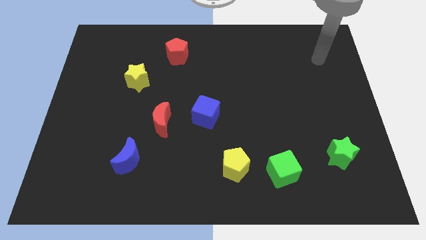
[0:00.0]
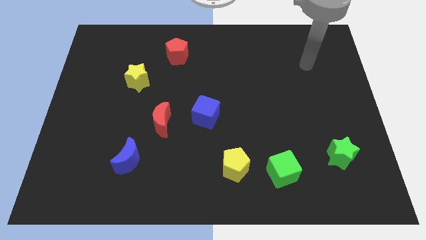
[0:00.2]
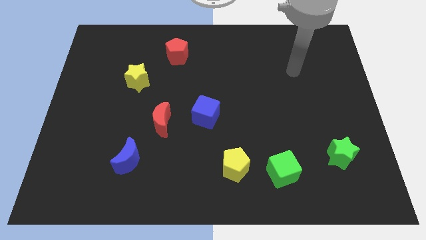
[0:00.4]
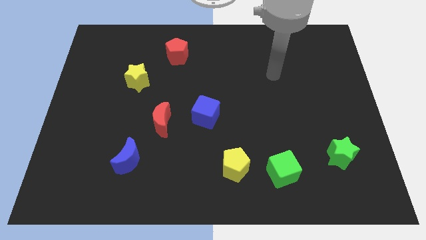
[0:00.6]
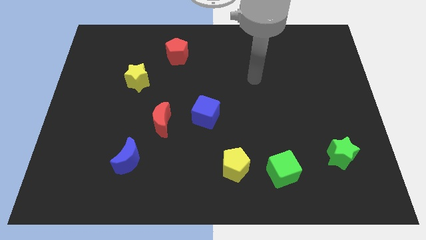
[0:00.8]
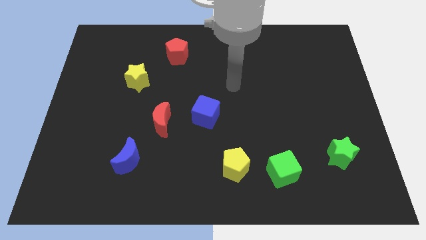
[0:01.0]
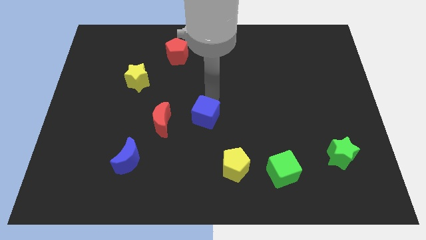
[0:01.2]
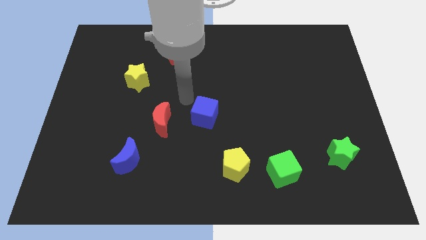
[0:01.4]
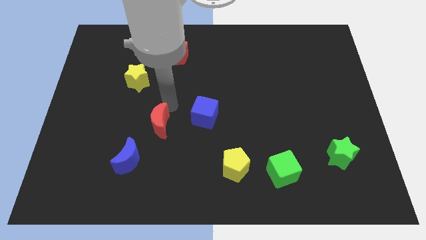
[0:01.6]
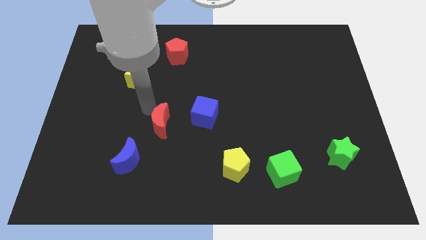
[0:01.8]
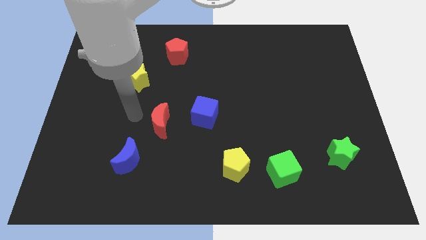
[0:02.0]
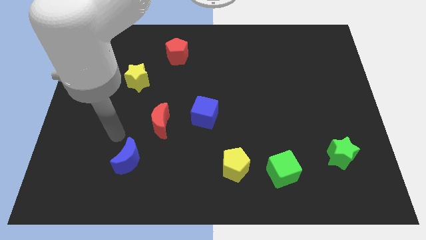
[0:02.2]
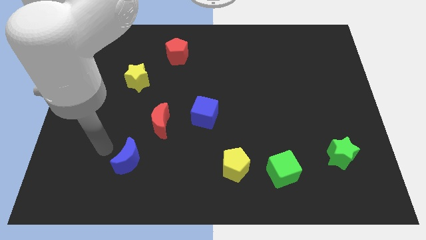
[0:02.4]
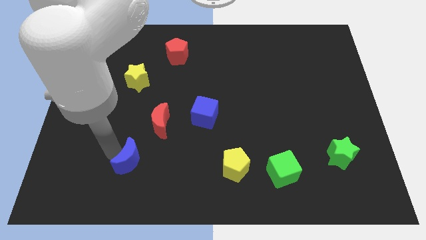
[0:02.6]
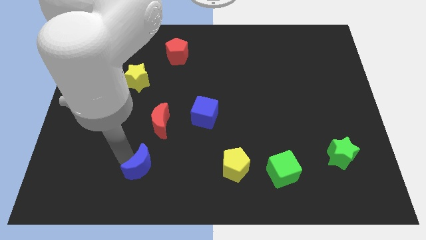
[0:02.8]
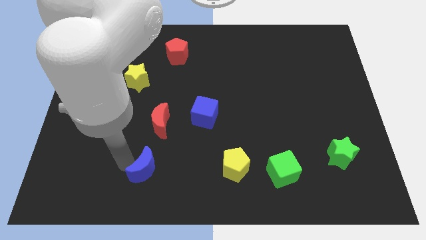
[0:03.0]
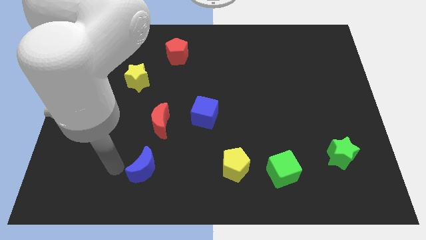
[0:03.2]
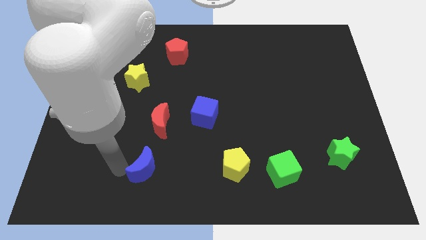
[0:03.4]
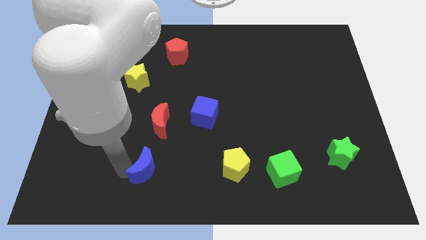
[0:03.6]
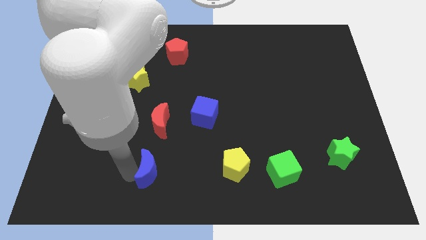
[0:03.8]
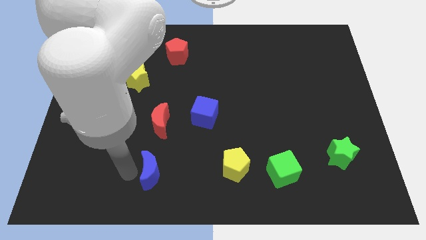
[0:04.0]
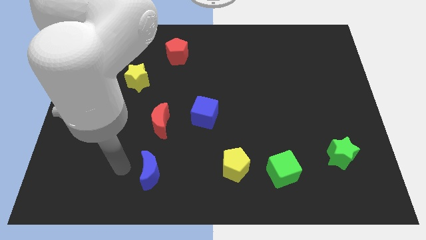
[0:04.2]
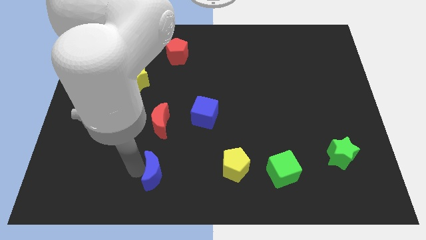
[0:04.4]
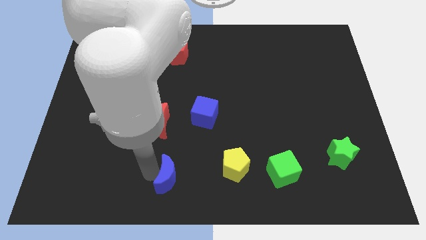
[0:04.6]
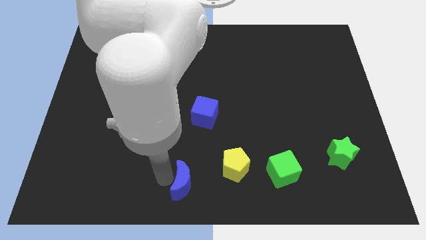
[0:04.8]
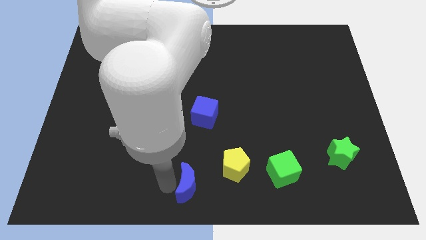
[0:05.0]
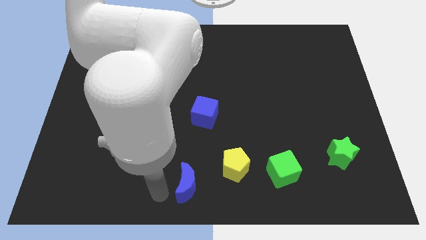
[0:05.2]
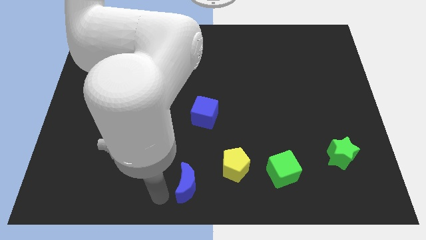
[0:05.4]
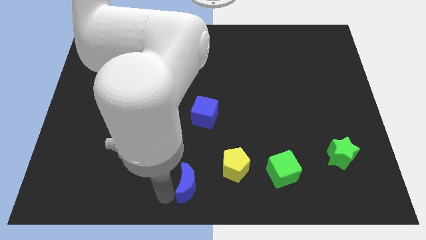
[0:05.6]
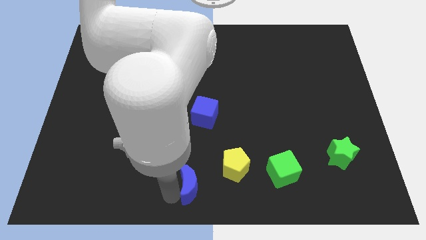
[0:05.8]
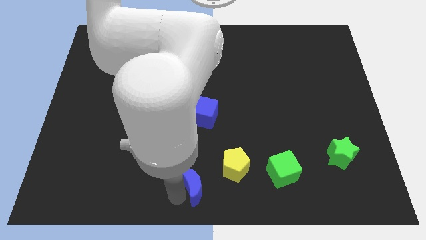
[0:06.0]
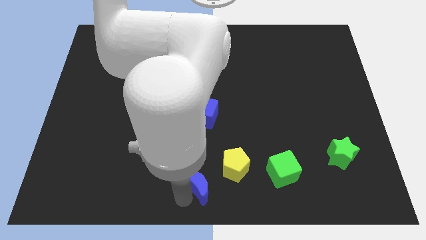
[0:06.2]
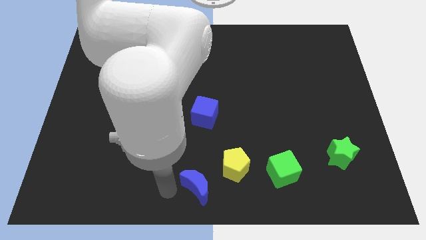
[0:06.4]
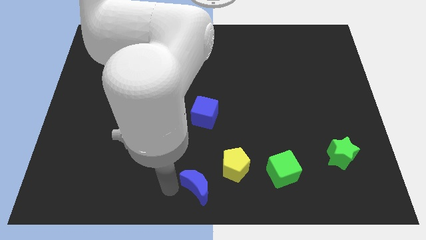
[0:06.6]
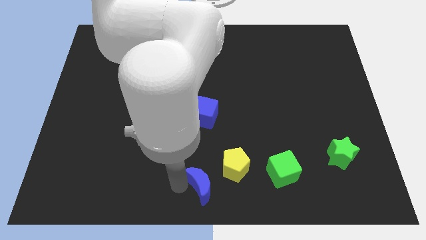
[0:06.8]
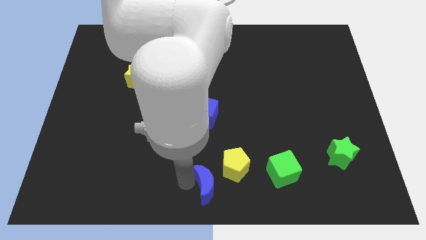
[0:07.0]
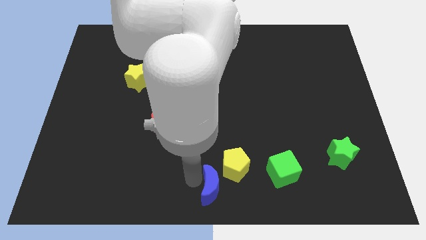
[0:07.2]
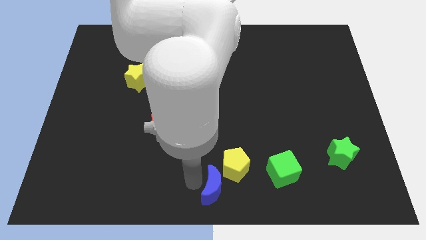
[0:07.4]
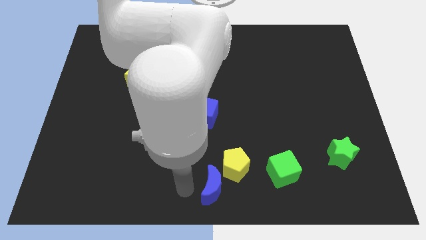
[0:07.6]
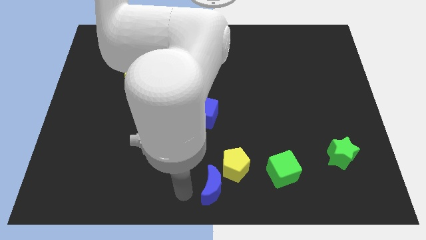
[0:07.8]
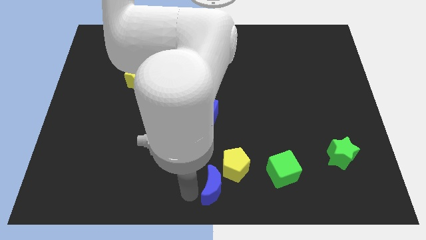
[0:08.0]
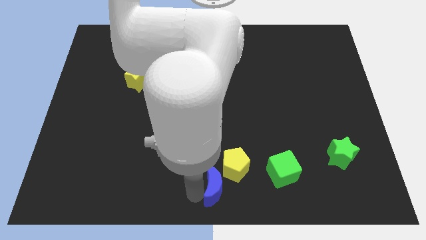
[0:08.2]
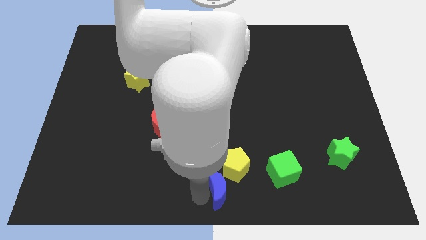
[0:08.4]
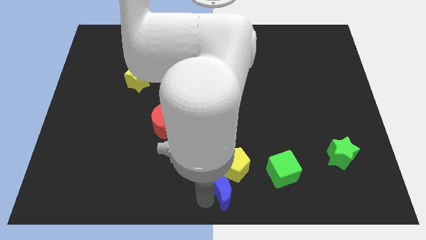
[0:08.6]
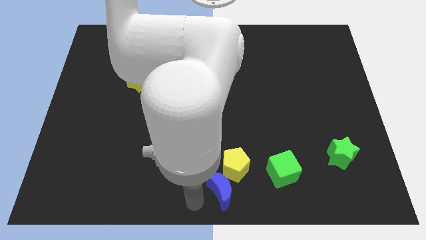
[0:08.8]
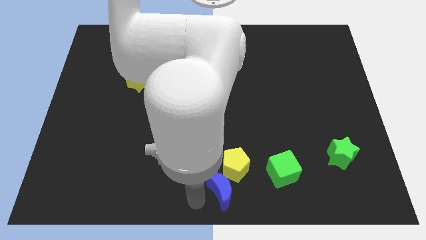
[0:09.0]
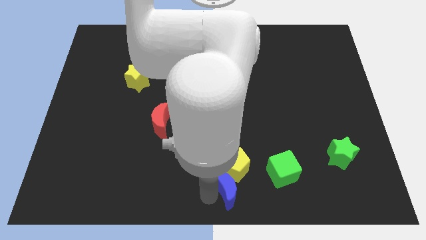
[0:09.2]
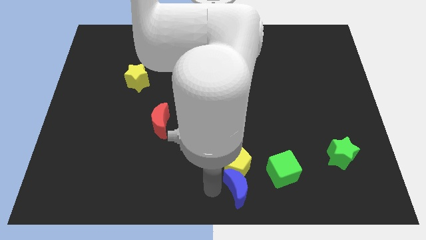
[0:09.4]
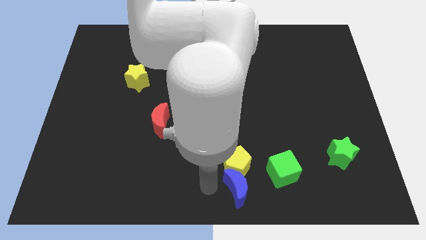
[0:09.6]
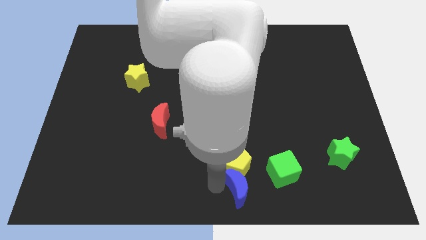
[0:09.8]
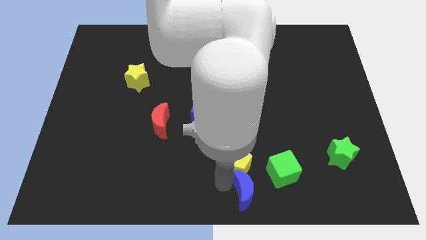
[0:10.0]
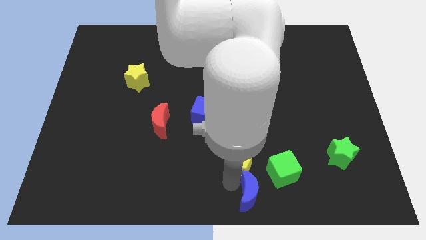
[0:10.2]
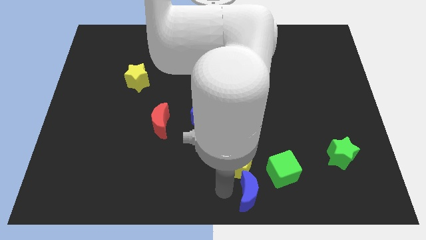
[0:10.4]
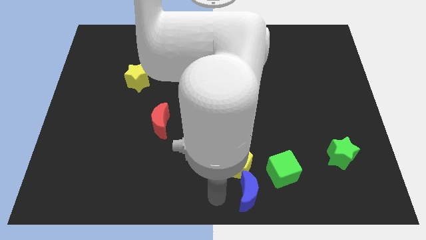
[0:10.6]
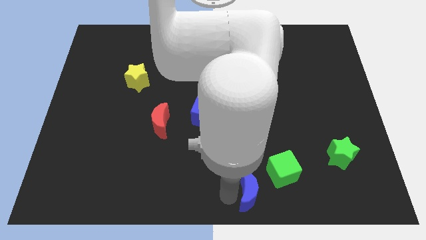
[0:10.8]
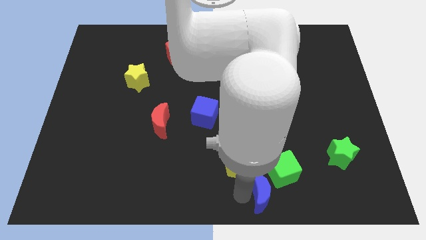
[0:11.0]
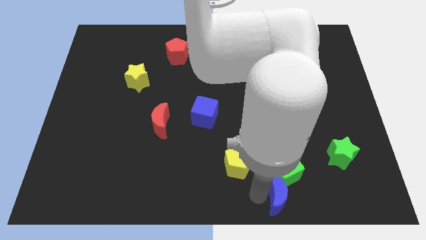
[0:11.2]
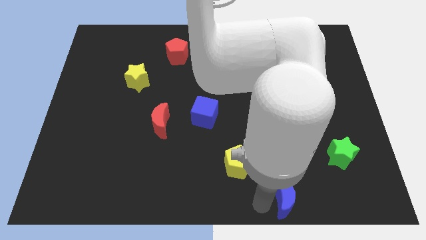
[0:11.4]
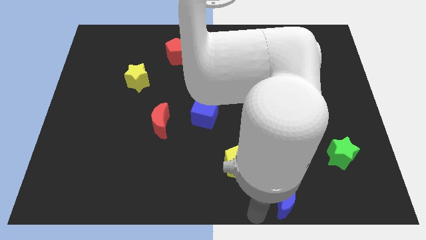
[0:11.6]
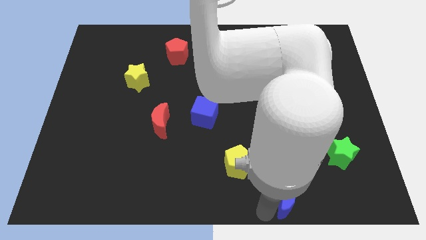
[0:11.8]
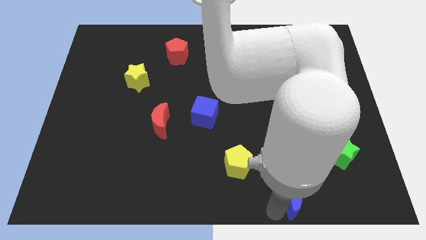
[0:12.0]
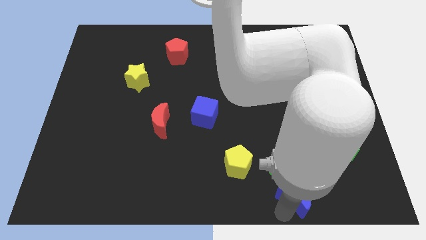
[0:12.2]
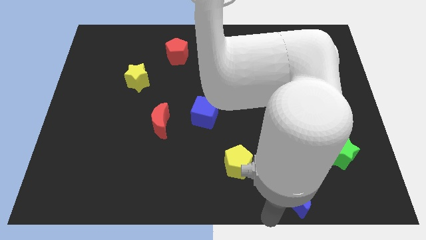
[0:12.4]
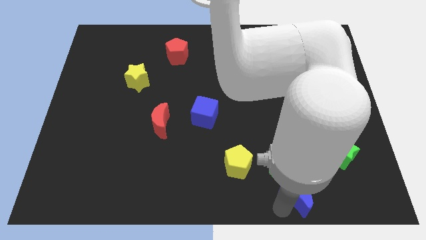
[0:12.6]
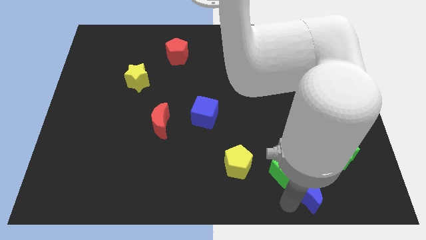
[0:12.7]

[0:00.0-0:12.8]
move the blue moon to the bottom left side of the green star

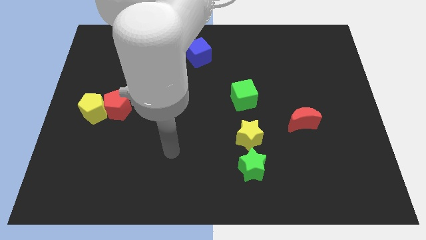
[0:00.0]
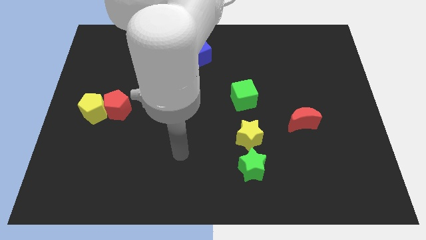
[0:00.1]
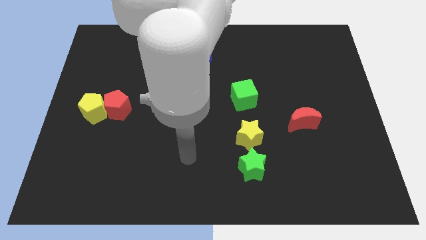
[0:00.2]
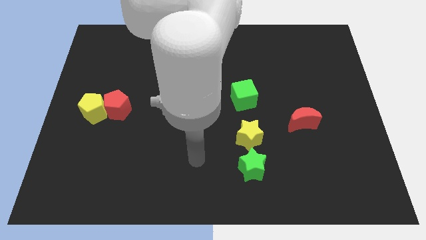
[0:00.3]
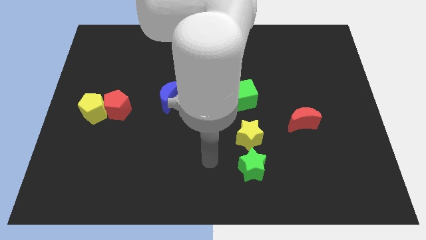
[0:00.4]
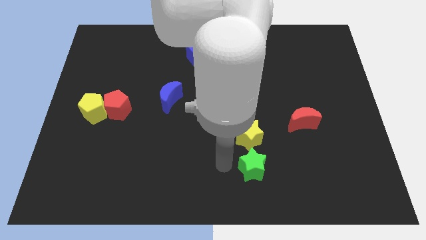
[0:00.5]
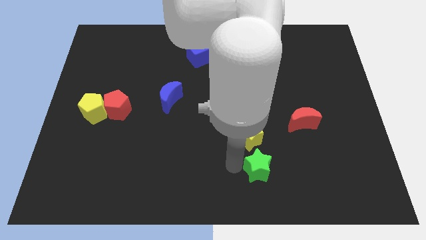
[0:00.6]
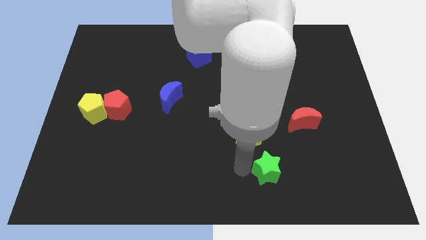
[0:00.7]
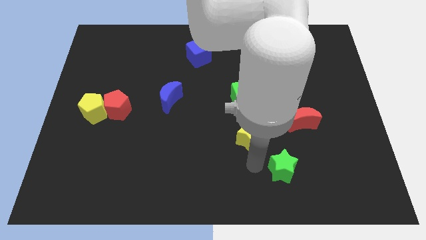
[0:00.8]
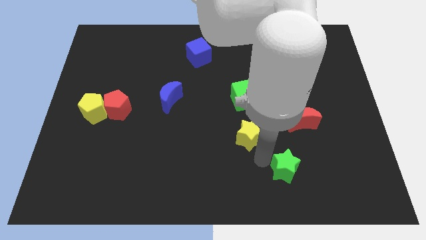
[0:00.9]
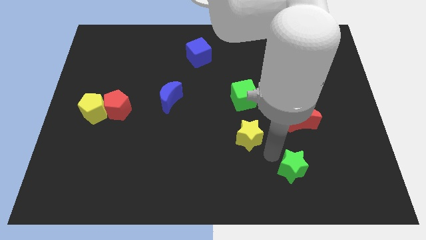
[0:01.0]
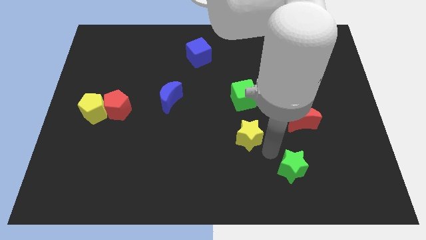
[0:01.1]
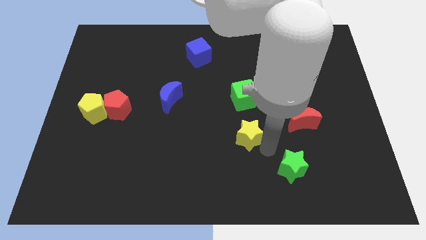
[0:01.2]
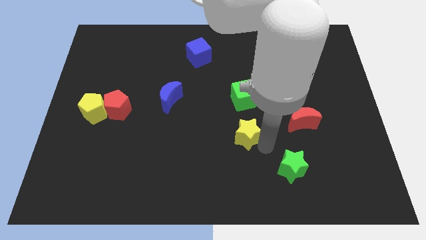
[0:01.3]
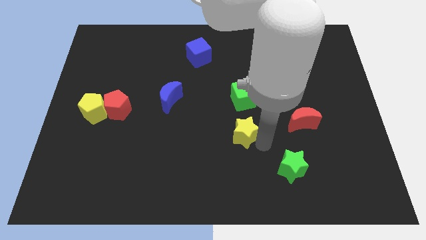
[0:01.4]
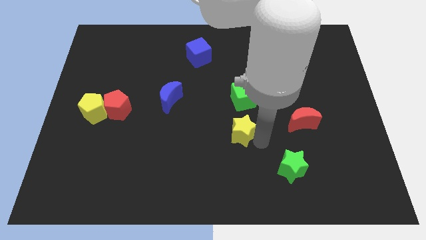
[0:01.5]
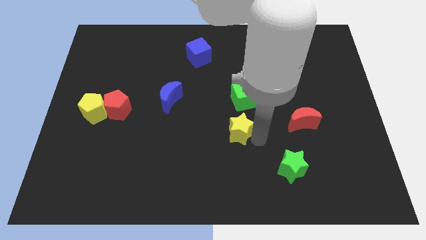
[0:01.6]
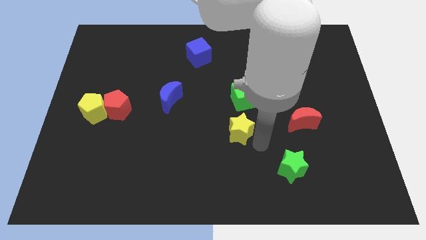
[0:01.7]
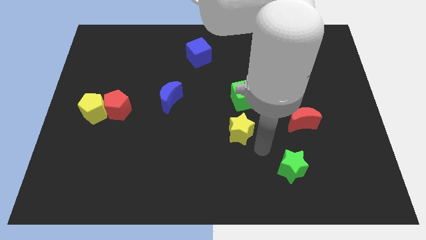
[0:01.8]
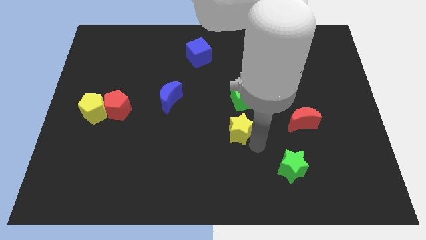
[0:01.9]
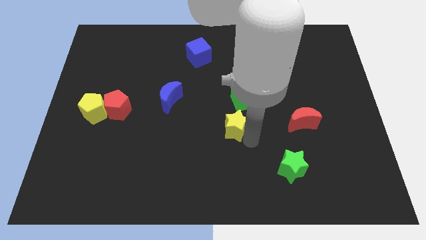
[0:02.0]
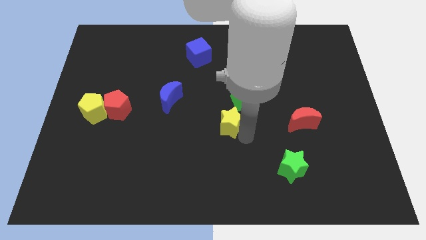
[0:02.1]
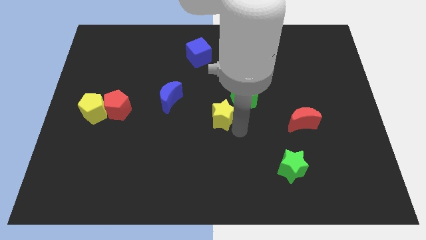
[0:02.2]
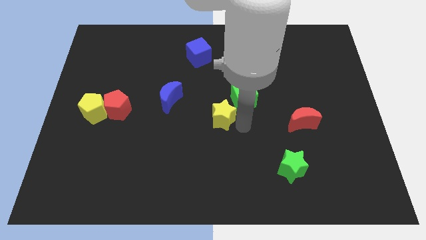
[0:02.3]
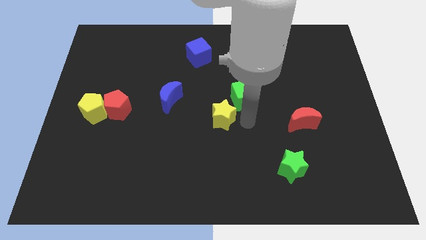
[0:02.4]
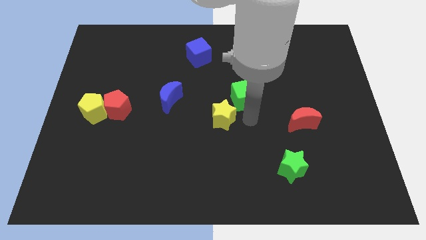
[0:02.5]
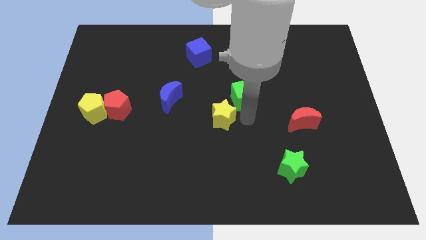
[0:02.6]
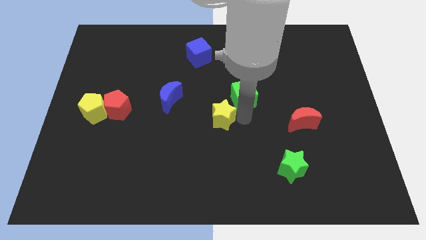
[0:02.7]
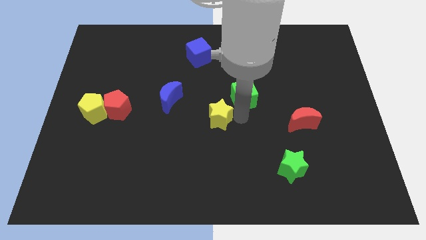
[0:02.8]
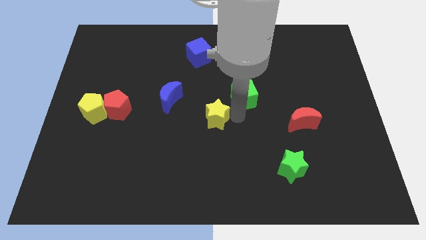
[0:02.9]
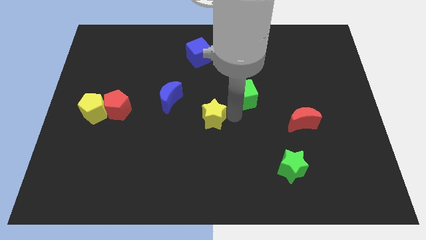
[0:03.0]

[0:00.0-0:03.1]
put the yellow star to the bottom right of the blue moon
